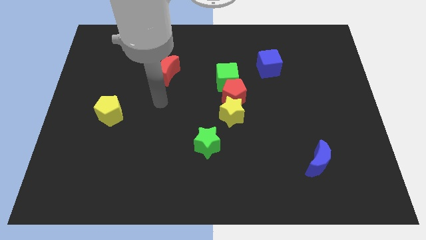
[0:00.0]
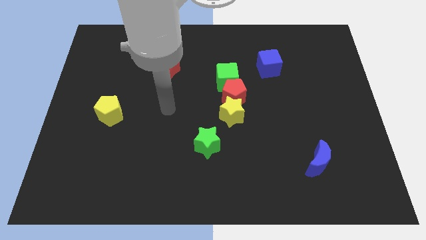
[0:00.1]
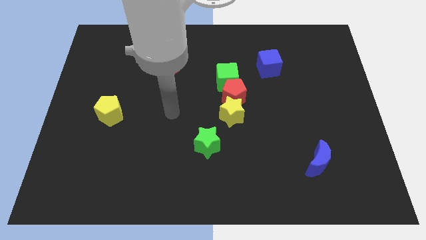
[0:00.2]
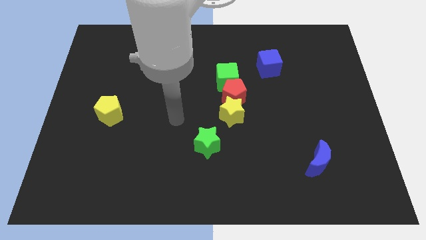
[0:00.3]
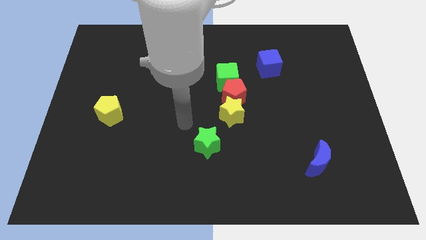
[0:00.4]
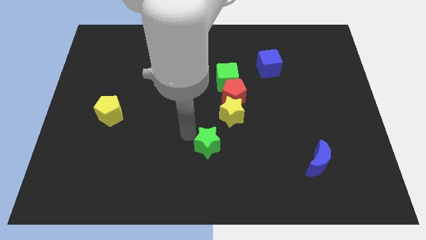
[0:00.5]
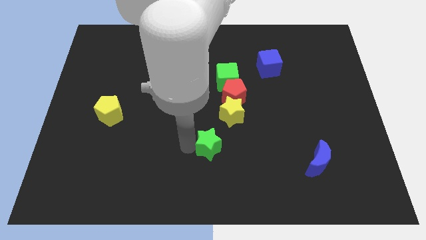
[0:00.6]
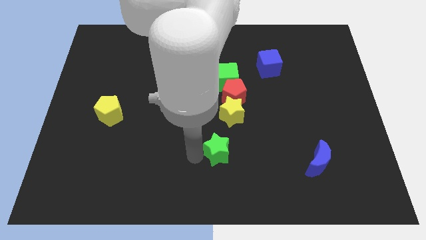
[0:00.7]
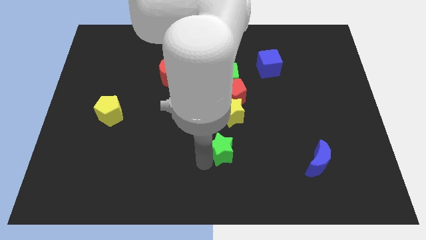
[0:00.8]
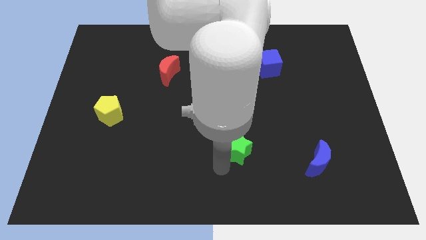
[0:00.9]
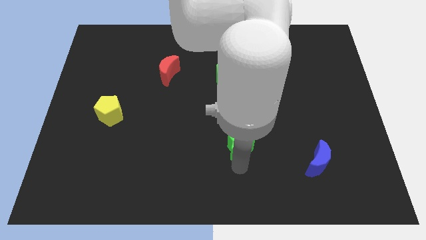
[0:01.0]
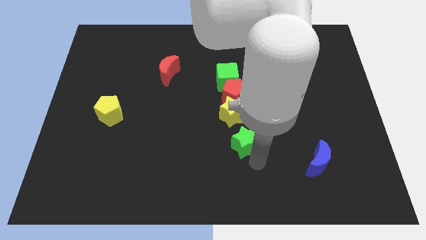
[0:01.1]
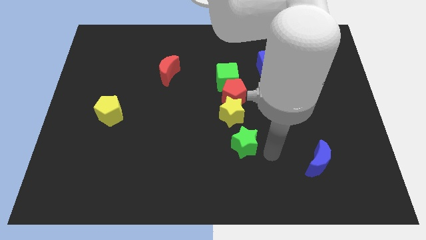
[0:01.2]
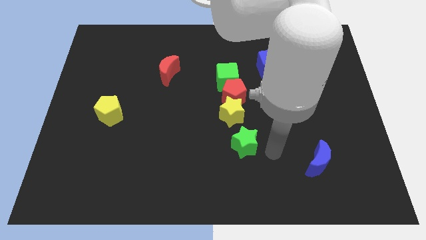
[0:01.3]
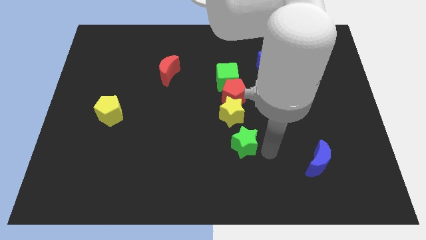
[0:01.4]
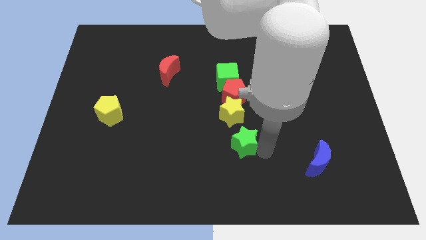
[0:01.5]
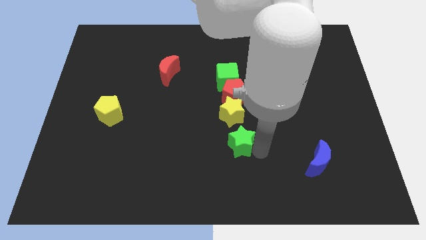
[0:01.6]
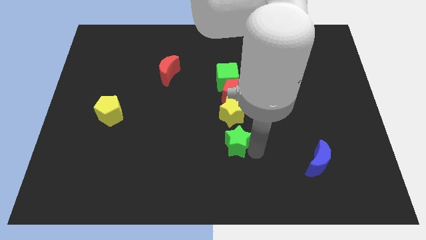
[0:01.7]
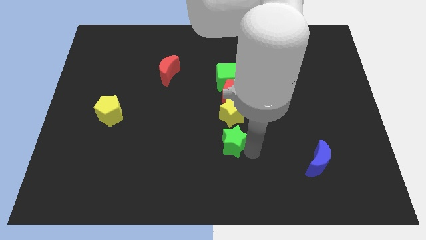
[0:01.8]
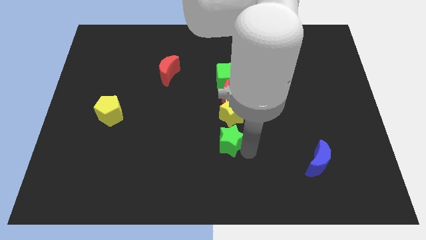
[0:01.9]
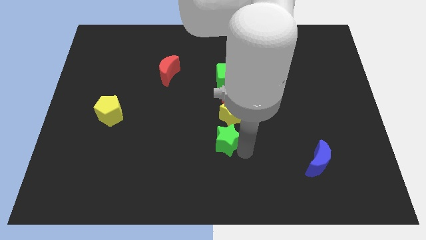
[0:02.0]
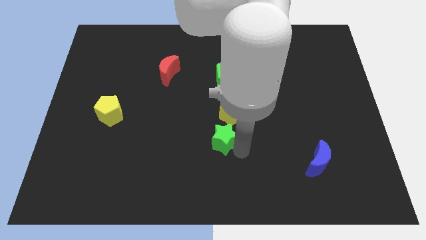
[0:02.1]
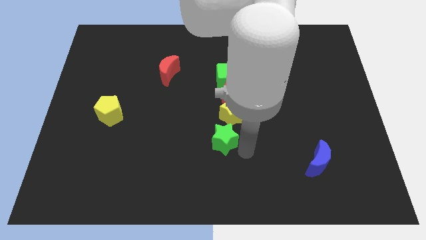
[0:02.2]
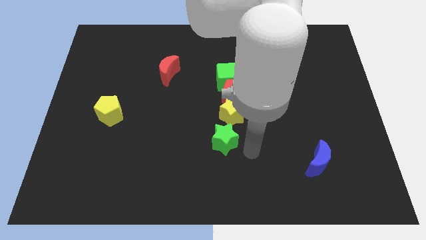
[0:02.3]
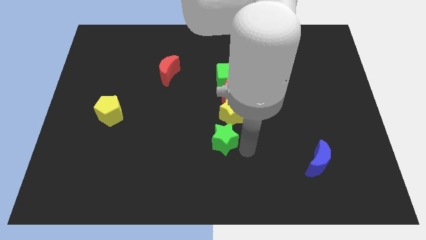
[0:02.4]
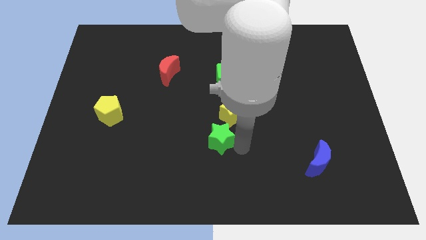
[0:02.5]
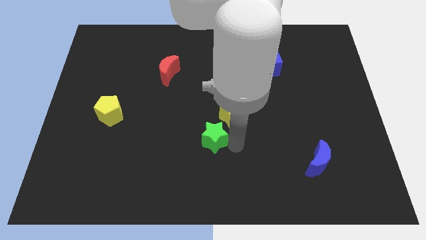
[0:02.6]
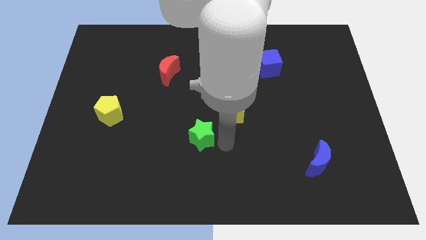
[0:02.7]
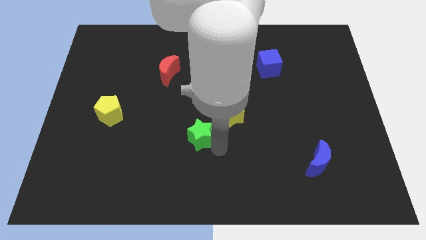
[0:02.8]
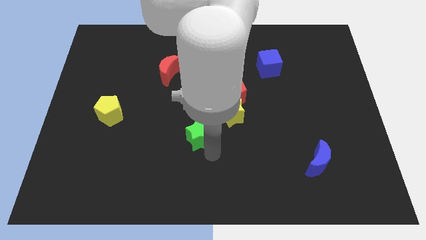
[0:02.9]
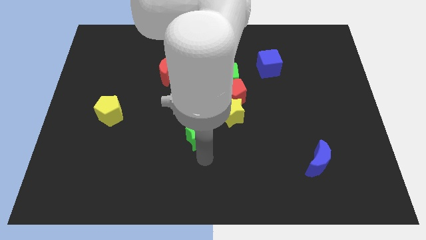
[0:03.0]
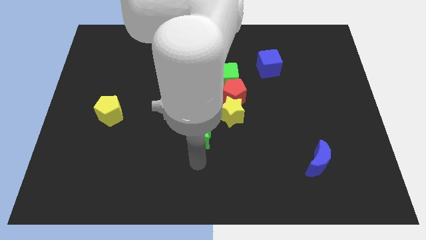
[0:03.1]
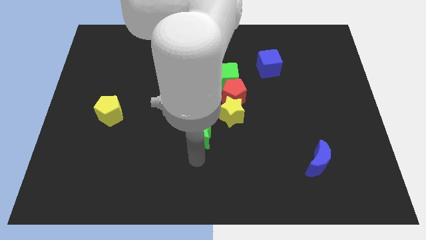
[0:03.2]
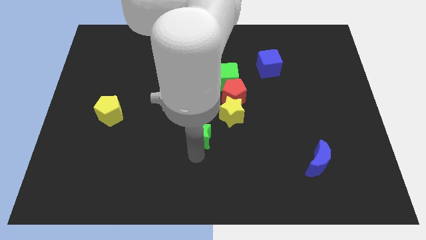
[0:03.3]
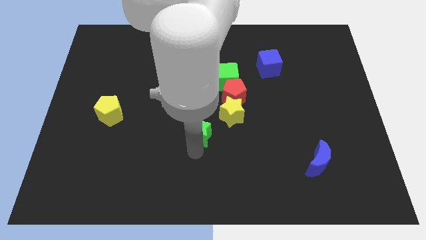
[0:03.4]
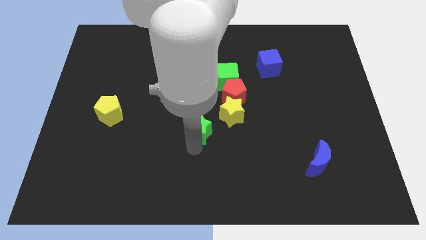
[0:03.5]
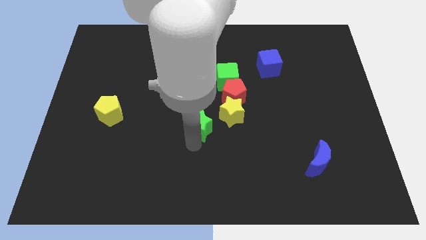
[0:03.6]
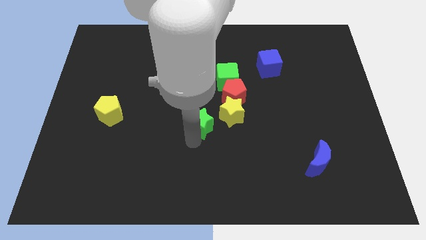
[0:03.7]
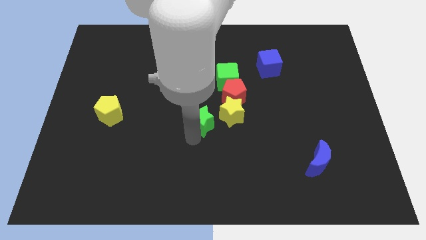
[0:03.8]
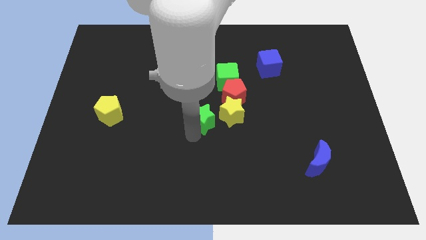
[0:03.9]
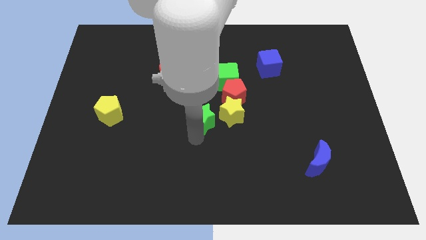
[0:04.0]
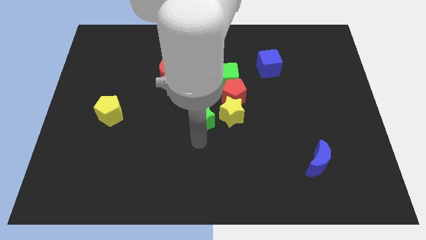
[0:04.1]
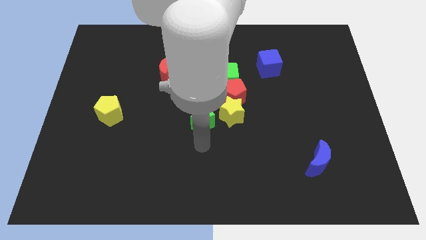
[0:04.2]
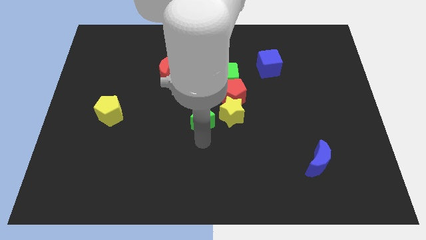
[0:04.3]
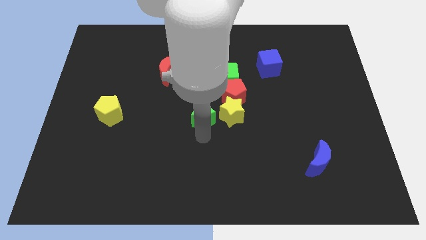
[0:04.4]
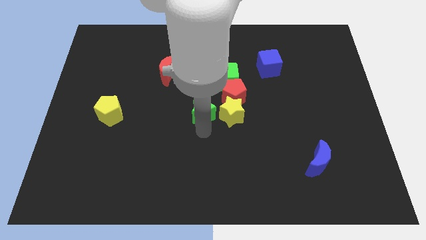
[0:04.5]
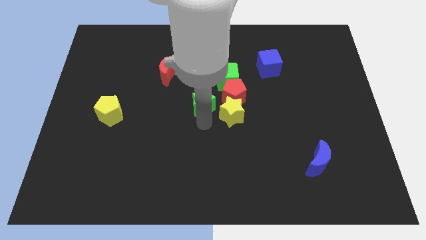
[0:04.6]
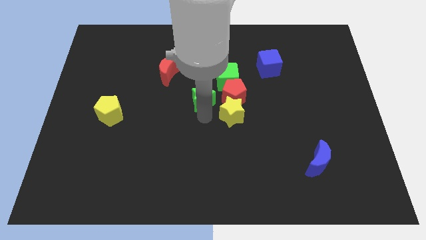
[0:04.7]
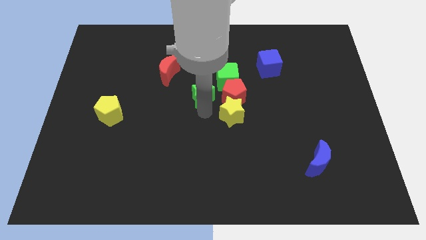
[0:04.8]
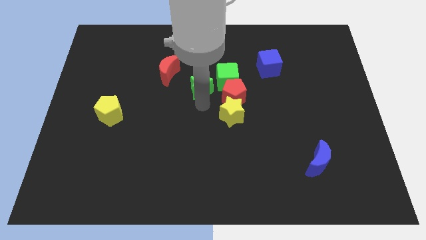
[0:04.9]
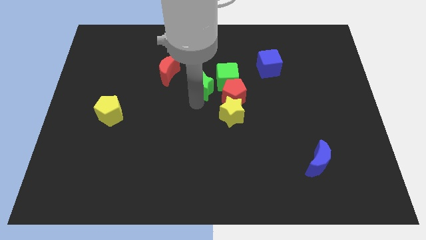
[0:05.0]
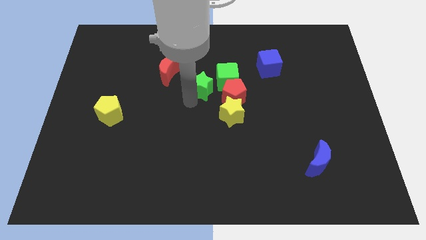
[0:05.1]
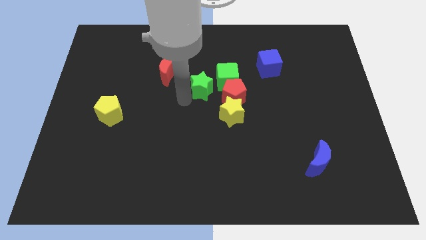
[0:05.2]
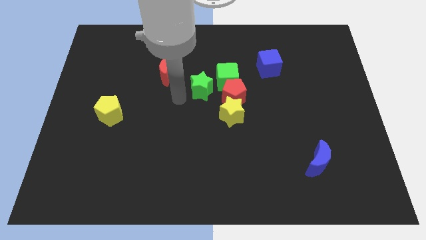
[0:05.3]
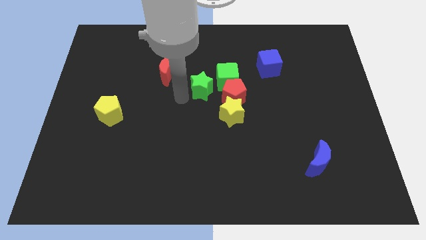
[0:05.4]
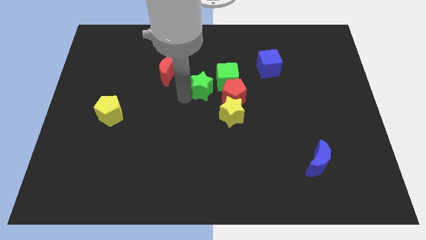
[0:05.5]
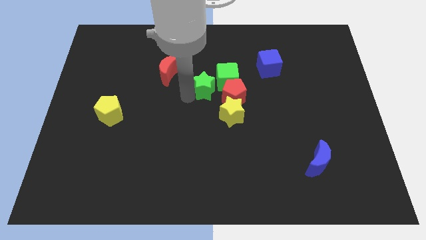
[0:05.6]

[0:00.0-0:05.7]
push the green star next to the green cube

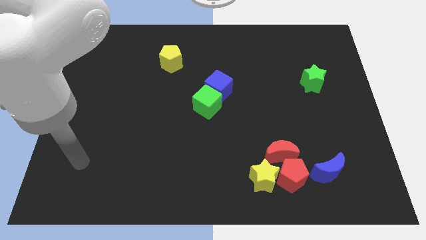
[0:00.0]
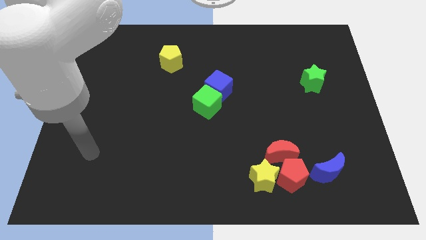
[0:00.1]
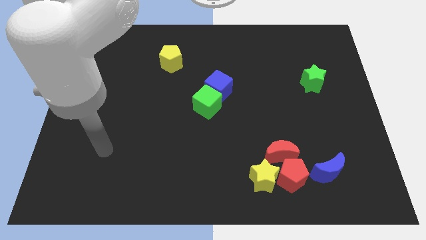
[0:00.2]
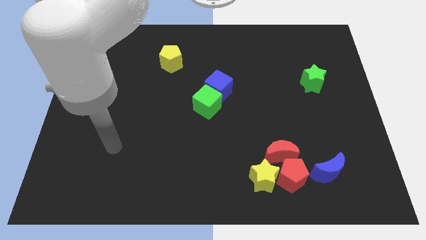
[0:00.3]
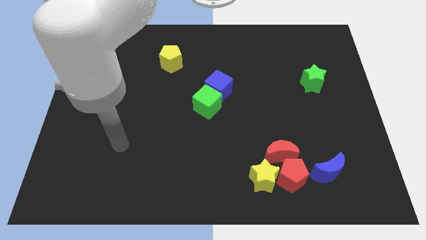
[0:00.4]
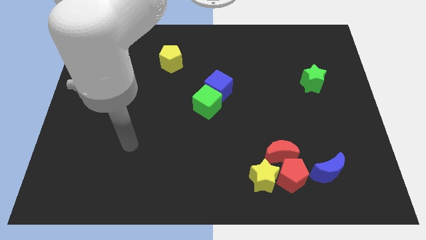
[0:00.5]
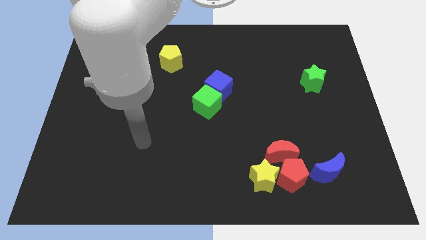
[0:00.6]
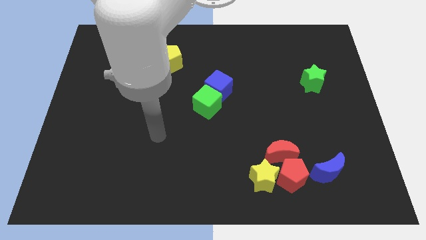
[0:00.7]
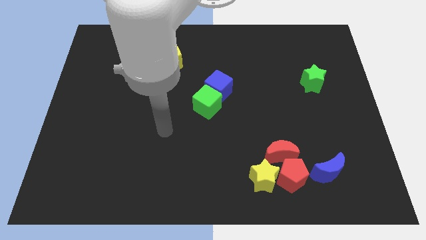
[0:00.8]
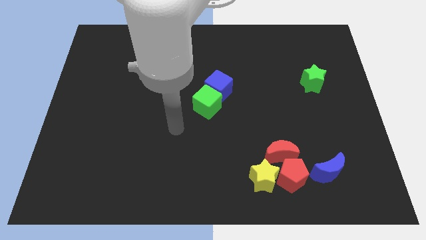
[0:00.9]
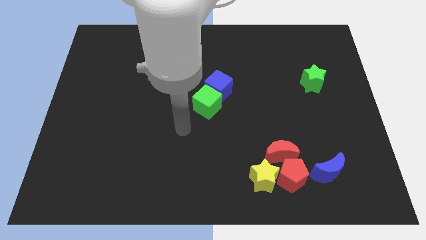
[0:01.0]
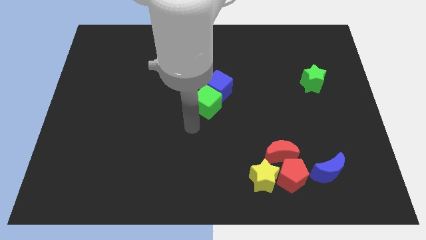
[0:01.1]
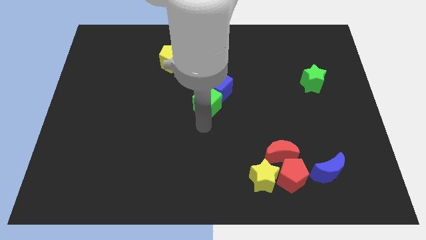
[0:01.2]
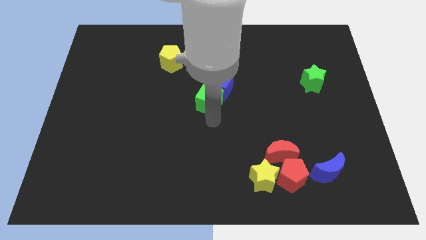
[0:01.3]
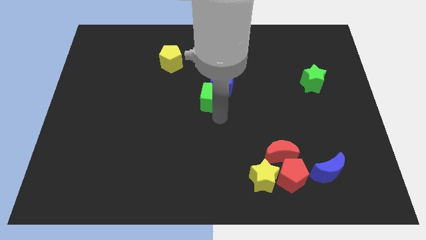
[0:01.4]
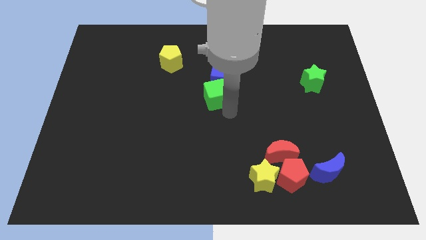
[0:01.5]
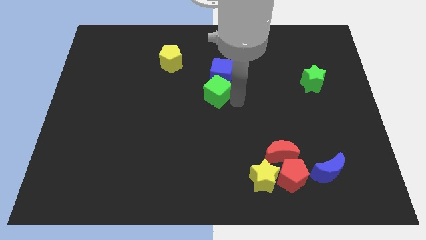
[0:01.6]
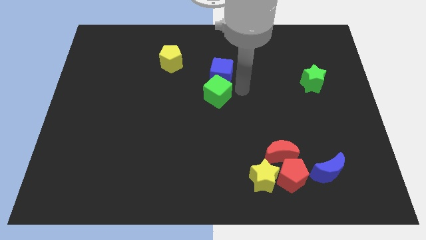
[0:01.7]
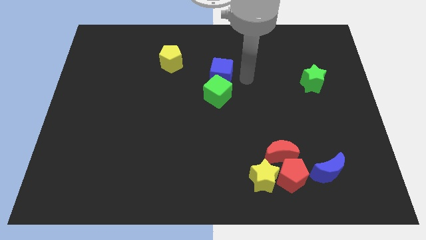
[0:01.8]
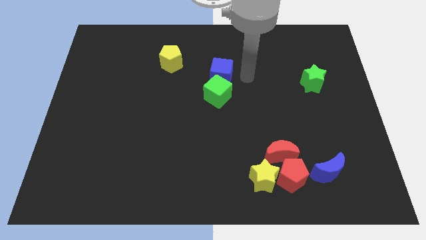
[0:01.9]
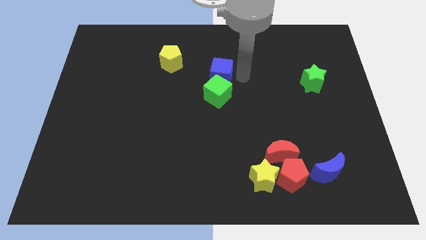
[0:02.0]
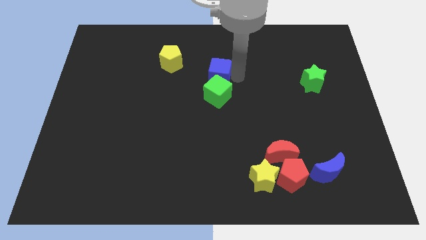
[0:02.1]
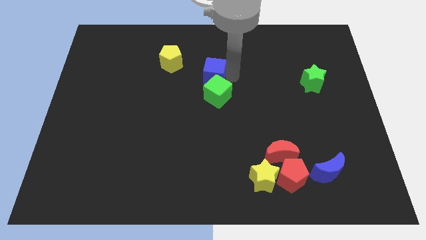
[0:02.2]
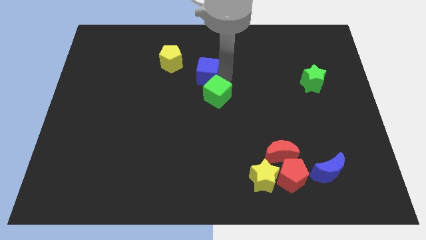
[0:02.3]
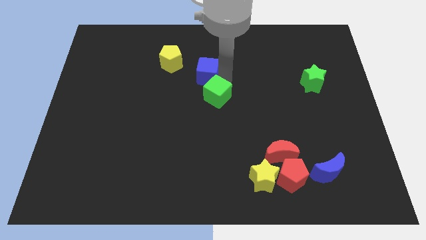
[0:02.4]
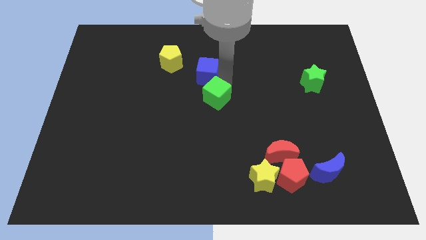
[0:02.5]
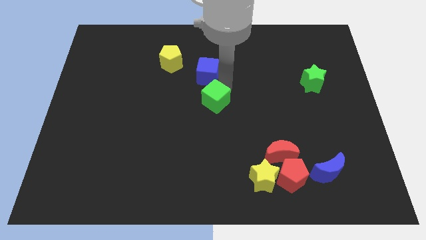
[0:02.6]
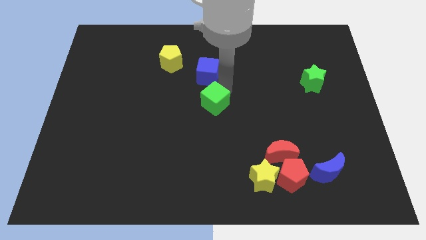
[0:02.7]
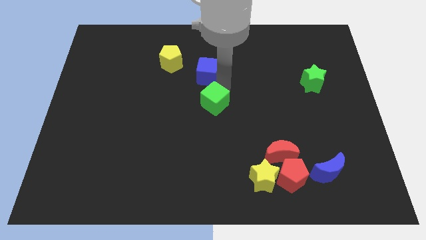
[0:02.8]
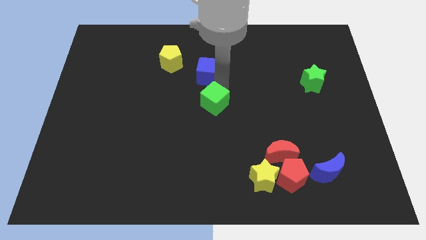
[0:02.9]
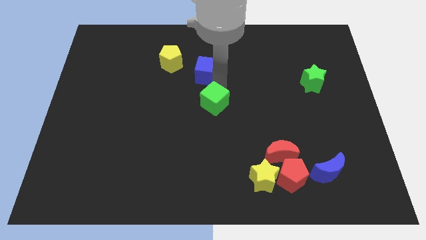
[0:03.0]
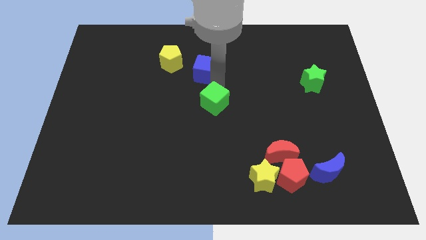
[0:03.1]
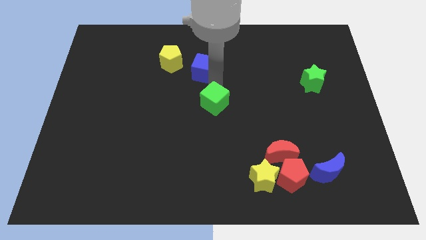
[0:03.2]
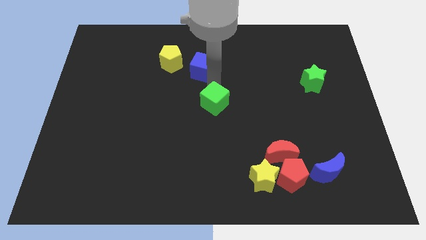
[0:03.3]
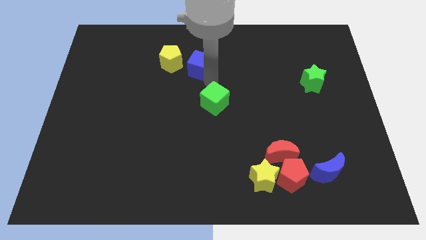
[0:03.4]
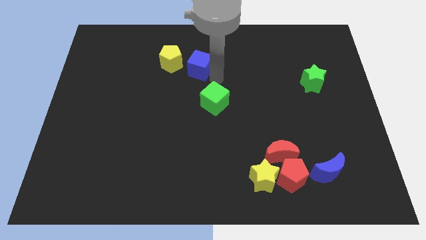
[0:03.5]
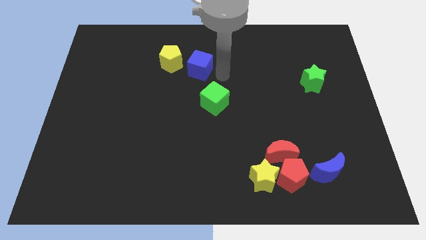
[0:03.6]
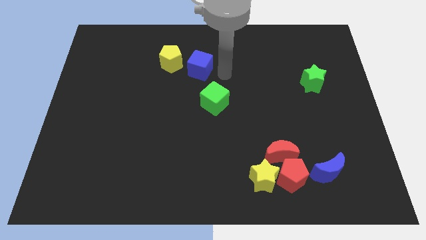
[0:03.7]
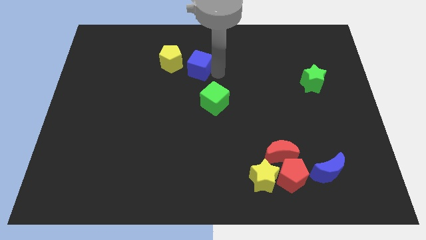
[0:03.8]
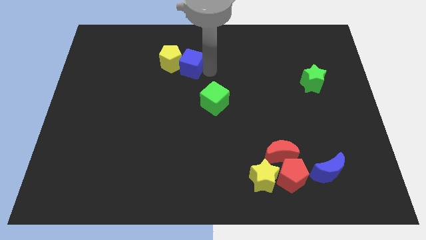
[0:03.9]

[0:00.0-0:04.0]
push the blue cube next to the yellow pentagon
